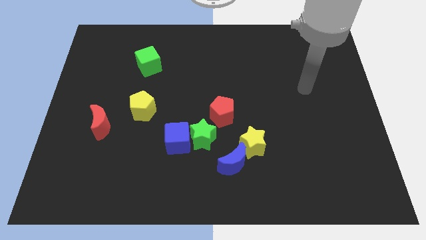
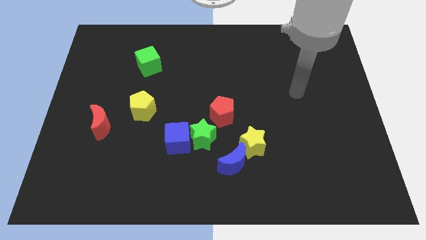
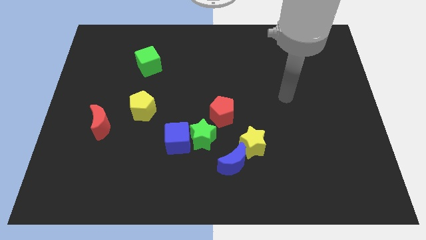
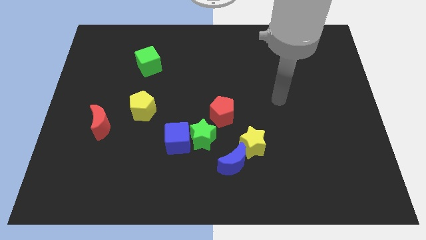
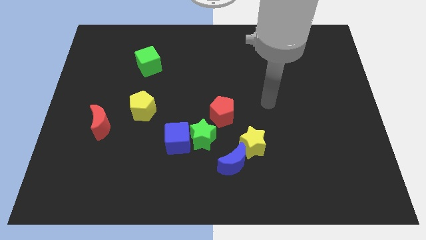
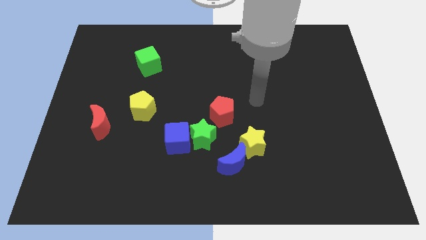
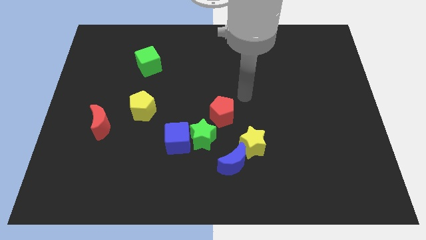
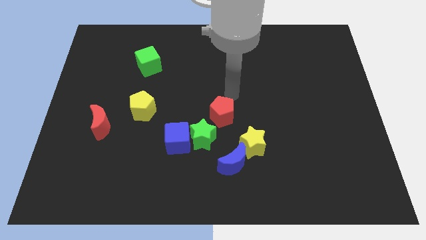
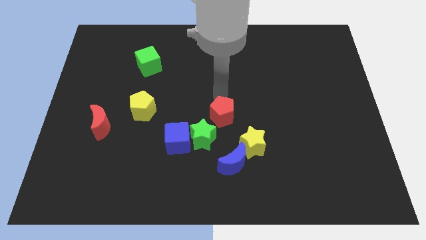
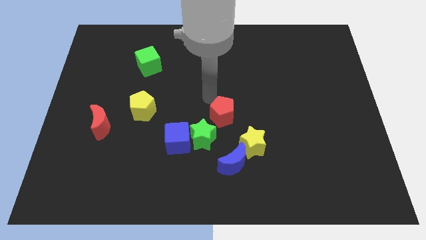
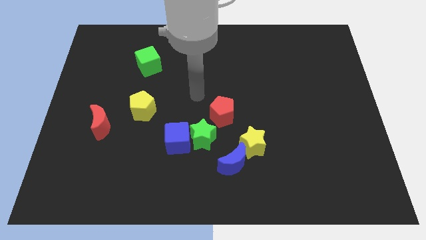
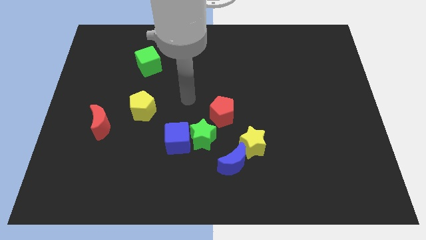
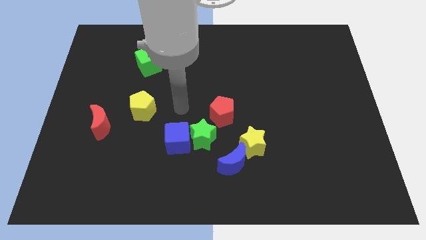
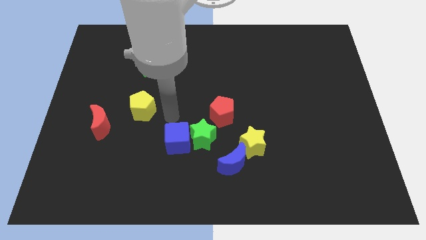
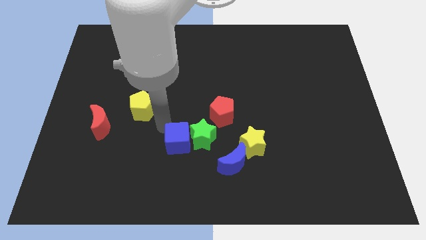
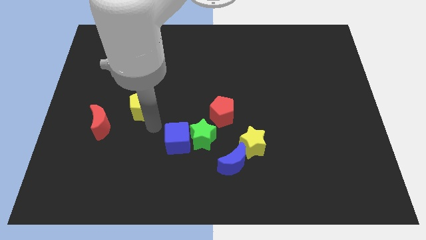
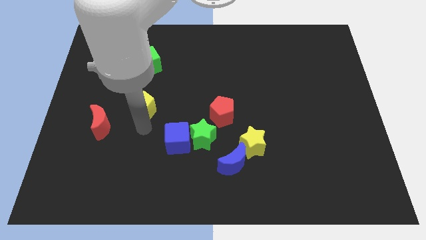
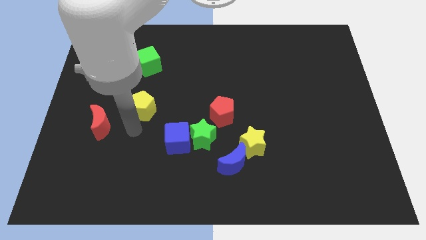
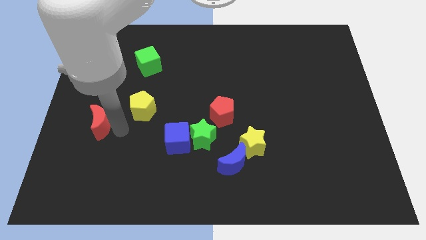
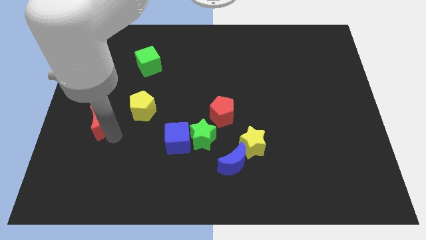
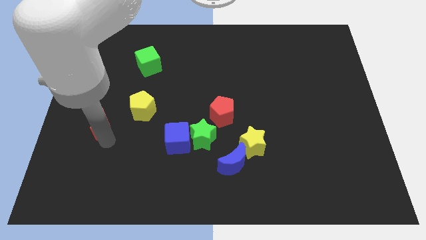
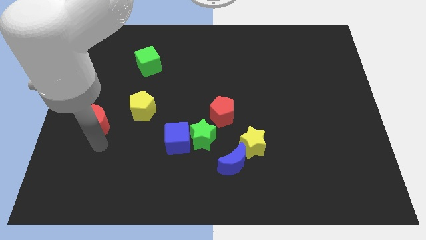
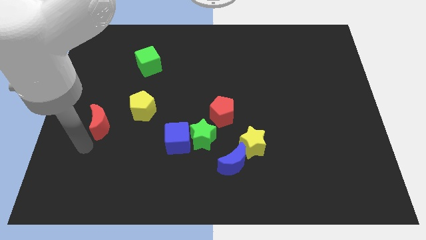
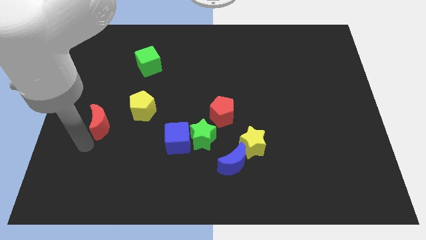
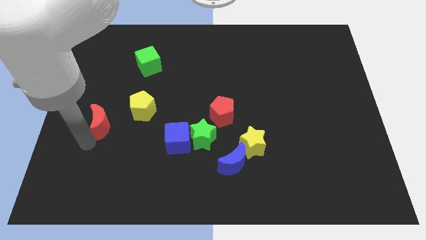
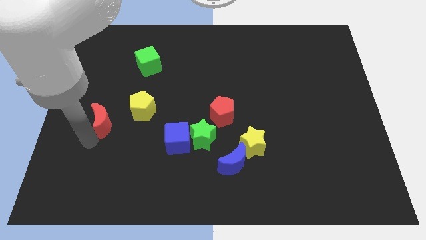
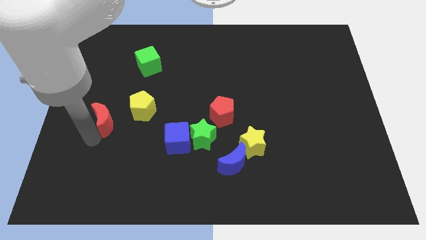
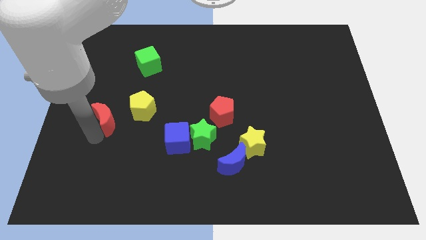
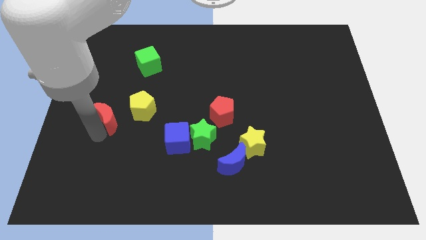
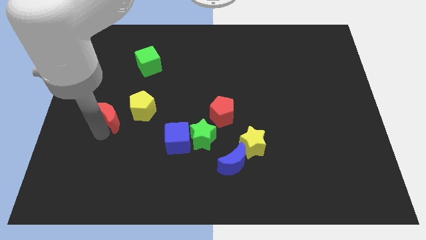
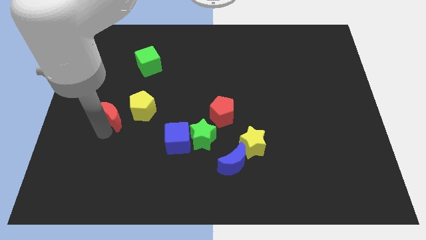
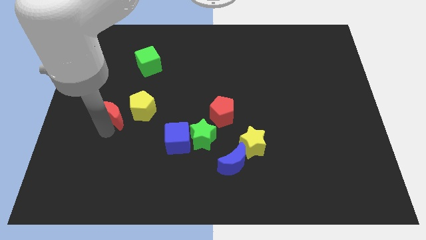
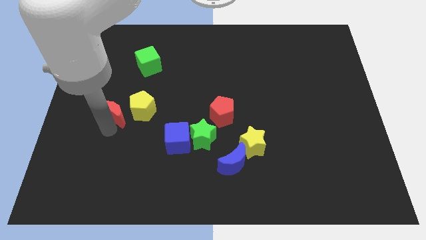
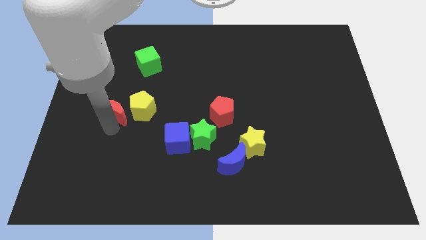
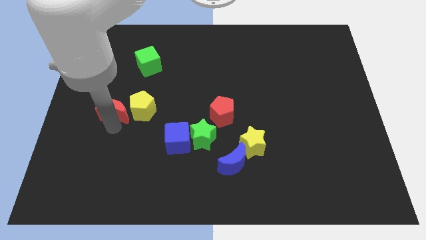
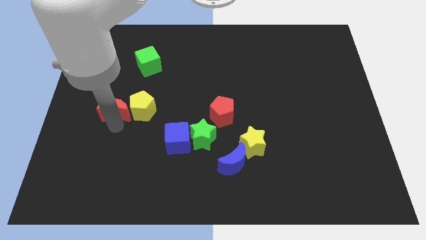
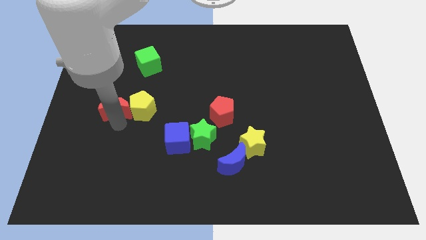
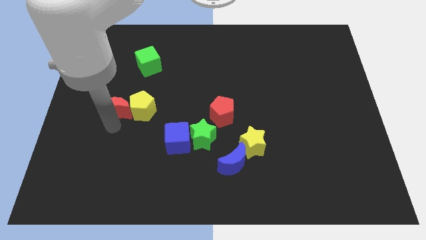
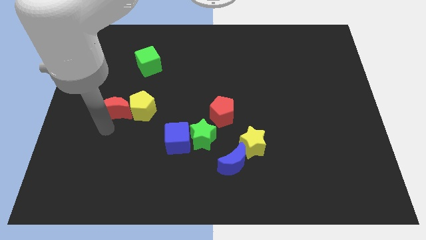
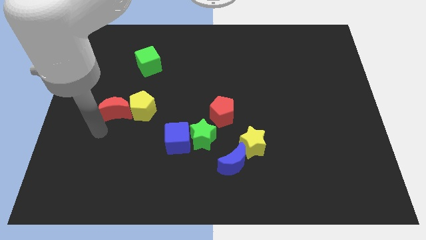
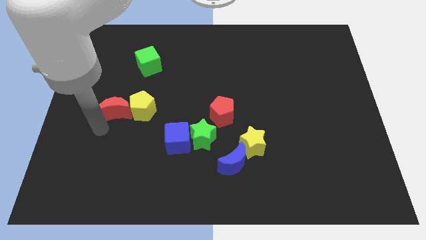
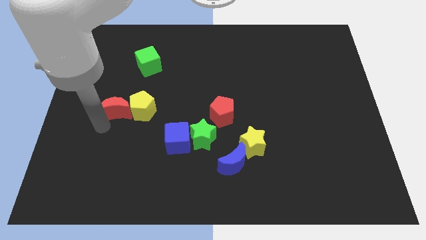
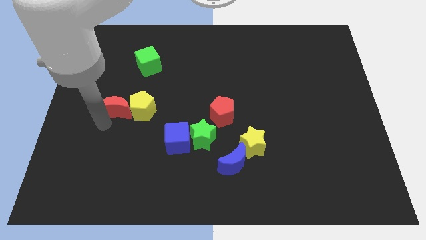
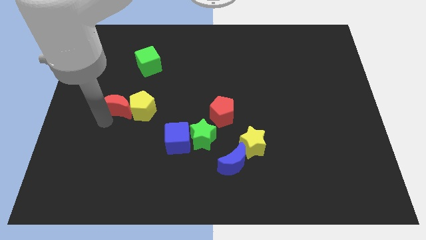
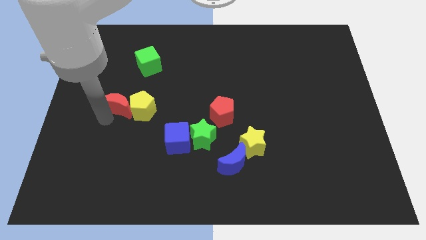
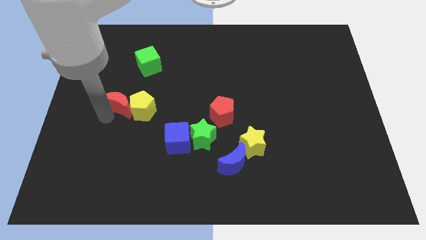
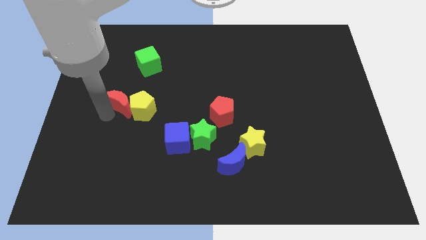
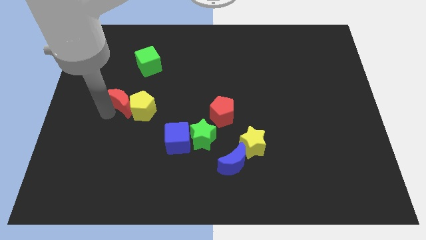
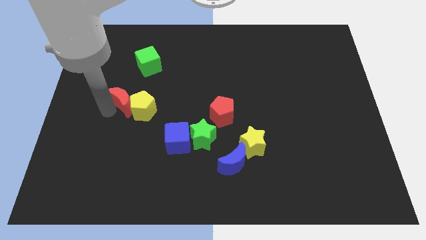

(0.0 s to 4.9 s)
push the red moon somewhat upwards and right diagonally

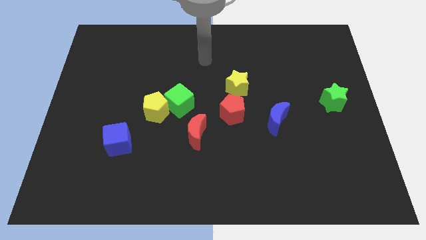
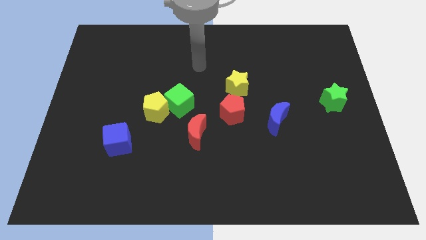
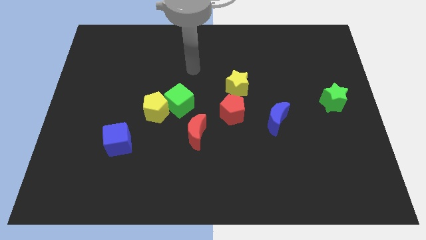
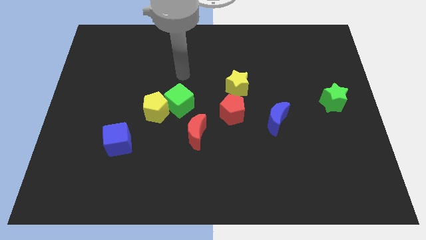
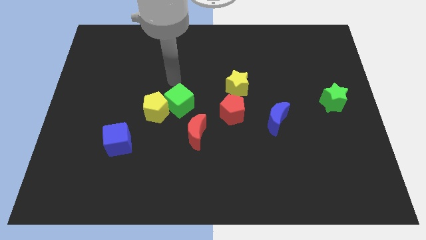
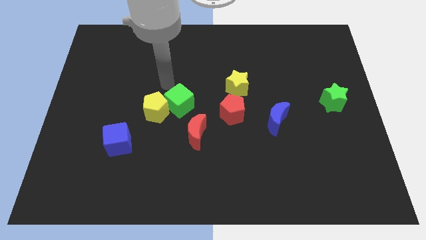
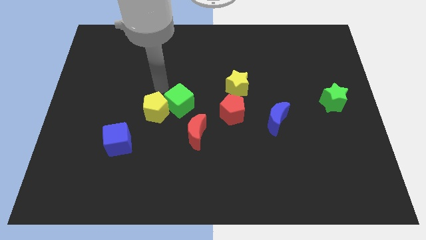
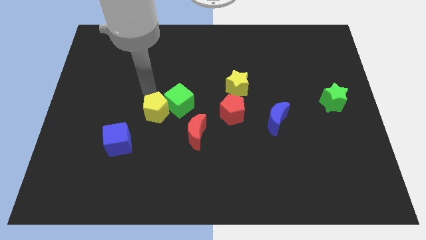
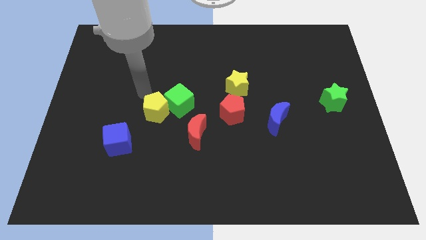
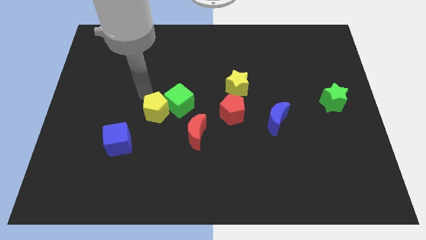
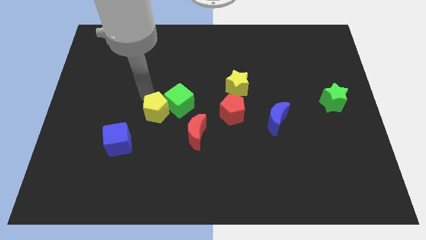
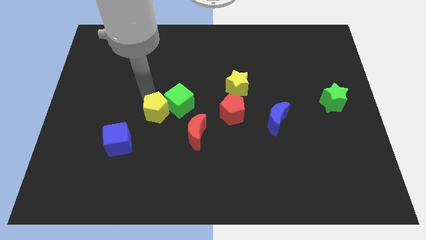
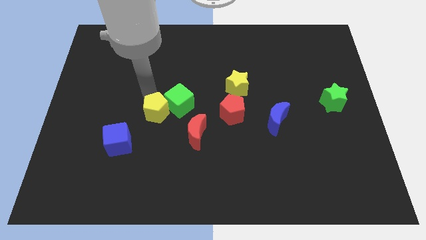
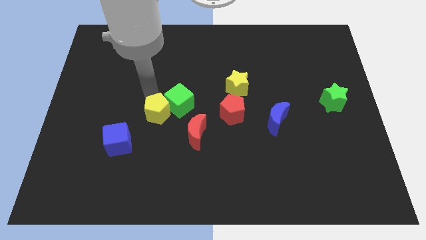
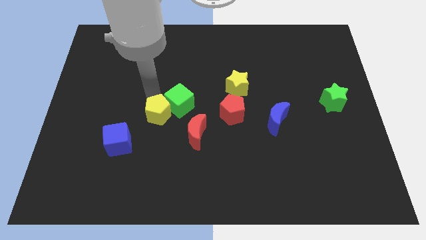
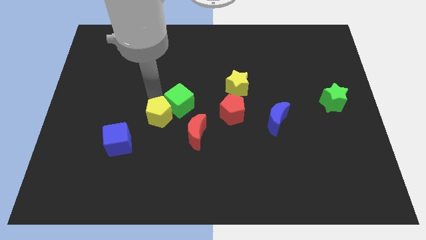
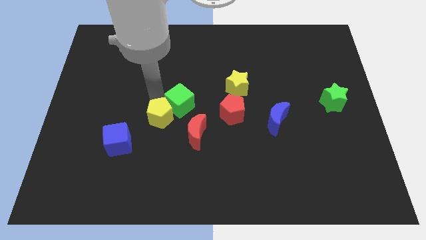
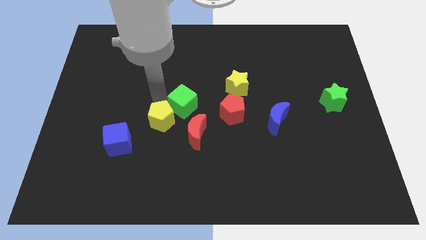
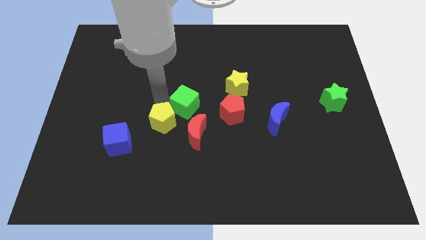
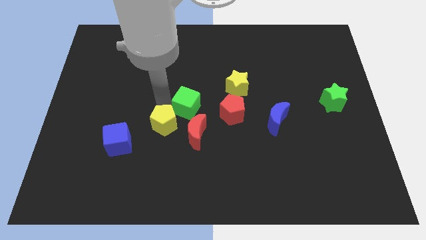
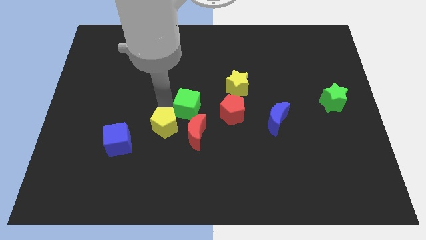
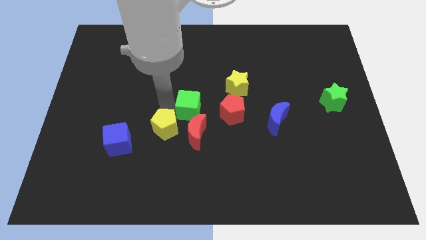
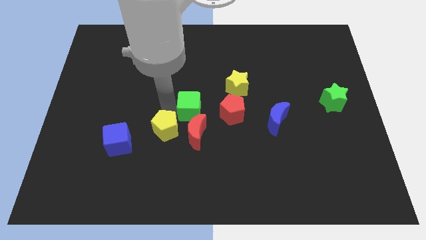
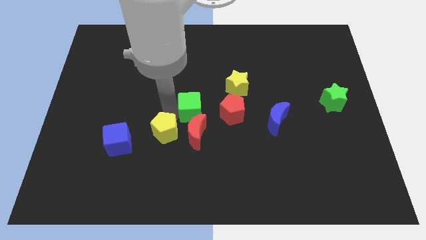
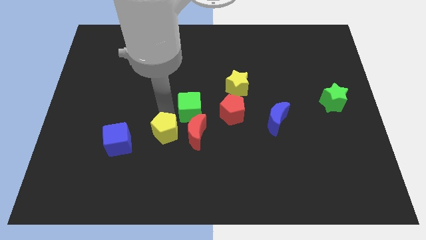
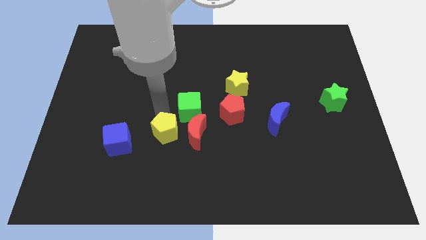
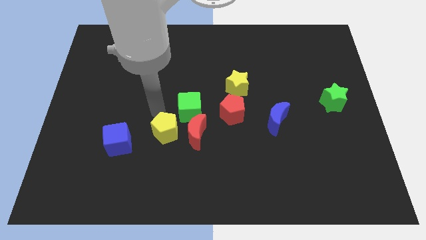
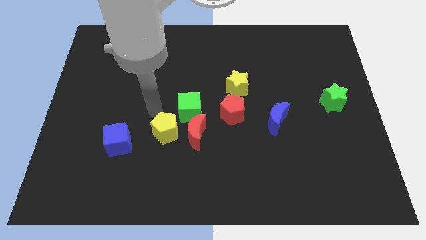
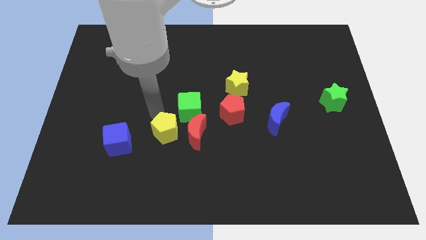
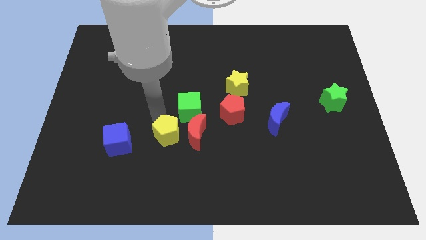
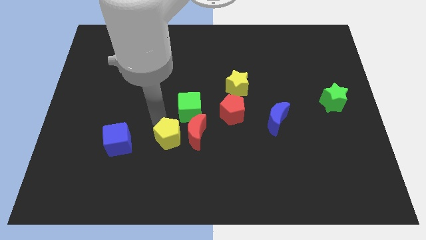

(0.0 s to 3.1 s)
slightly push the yellow pentagon down and to the right
